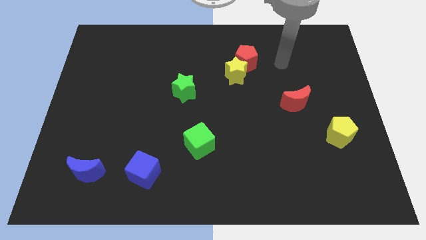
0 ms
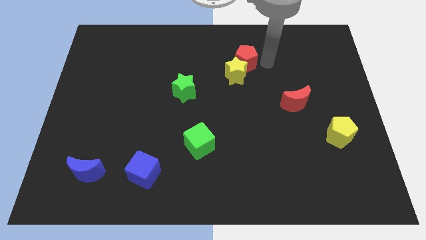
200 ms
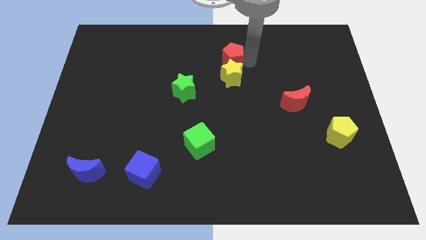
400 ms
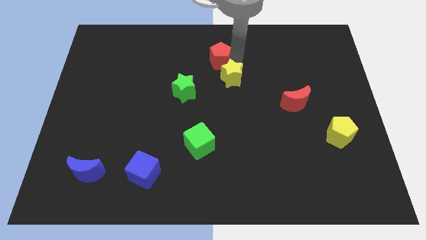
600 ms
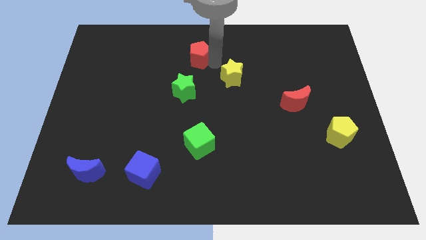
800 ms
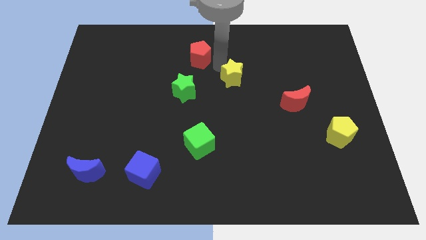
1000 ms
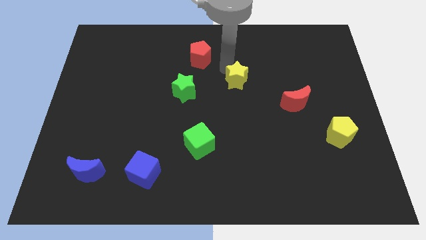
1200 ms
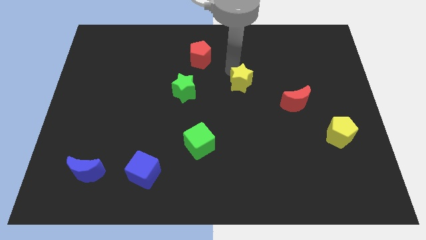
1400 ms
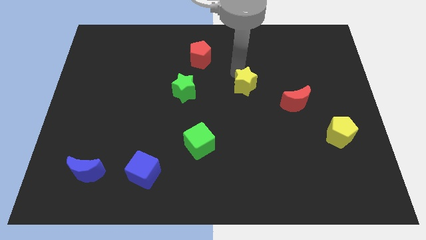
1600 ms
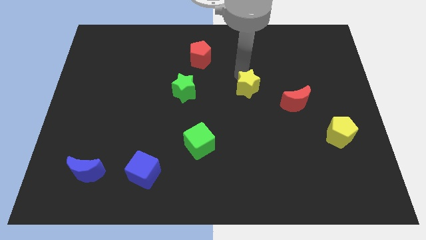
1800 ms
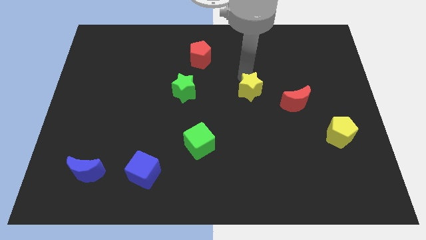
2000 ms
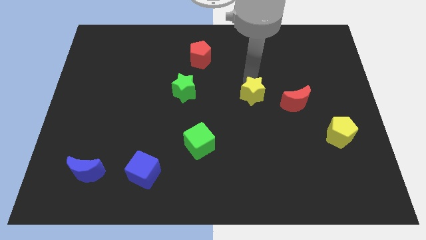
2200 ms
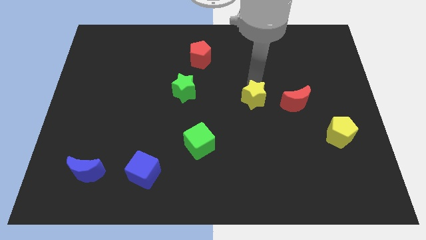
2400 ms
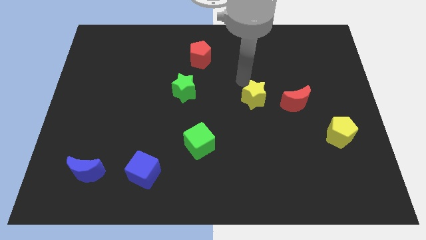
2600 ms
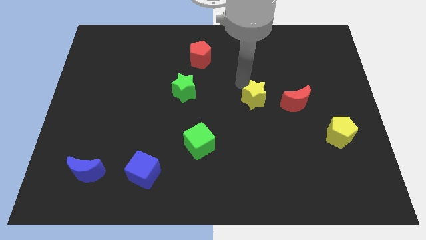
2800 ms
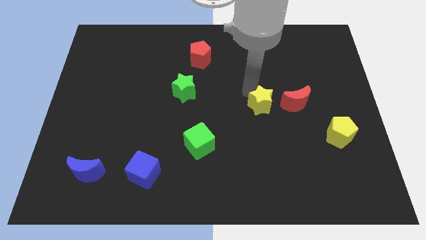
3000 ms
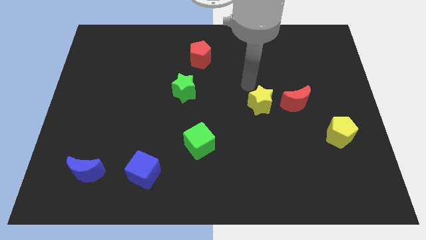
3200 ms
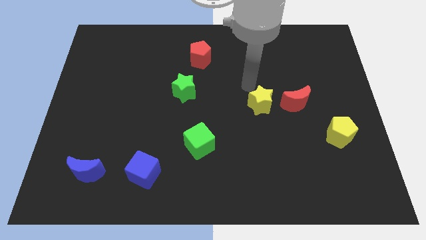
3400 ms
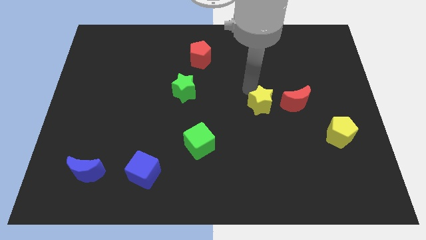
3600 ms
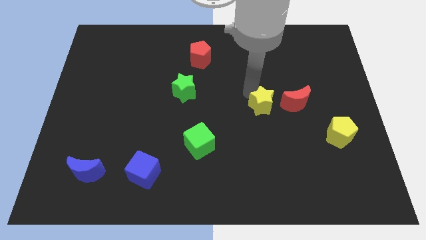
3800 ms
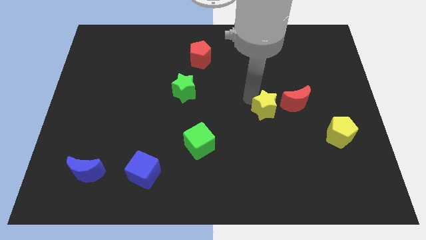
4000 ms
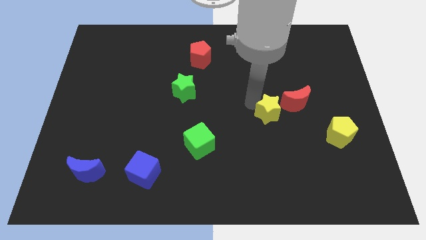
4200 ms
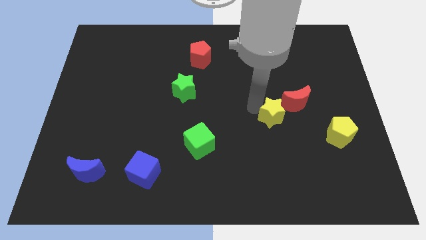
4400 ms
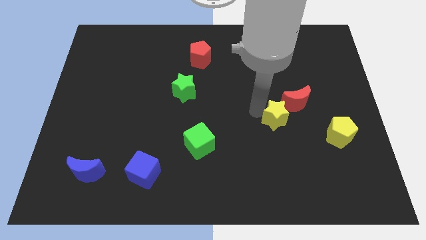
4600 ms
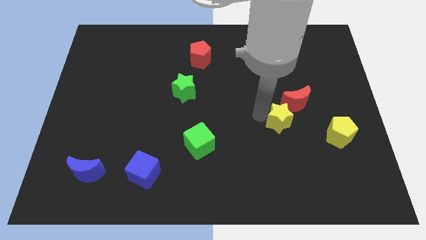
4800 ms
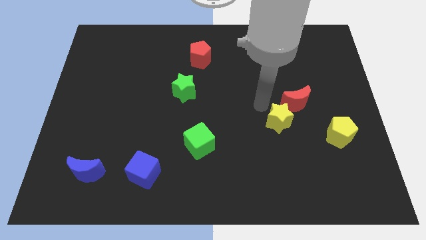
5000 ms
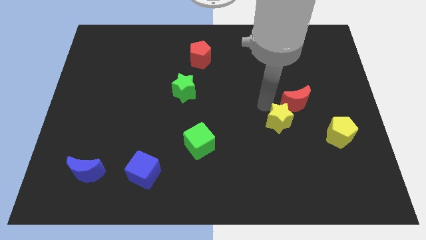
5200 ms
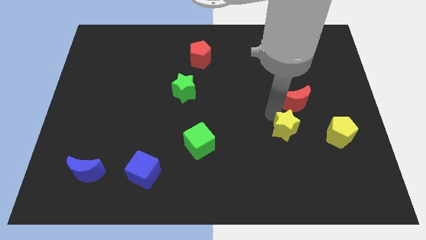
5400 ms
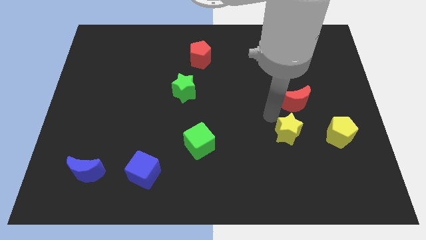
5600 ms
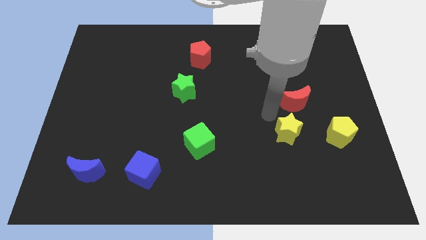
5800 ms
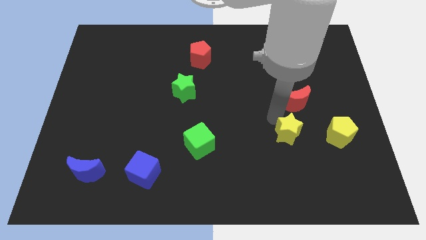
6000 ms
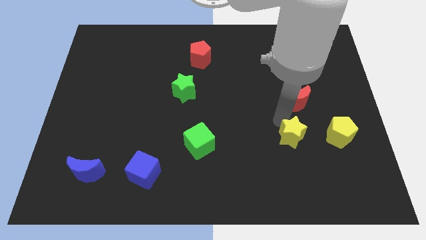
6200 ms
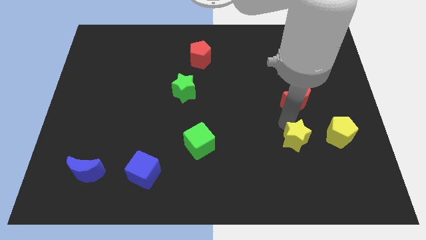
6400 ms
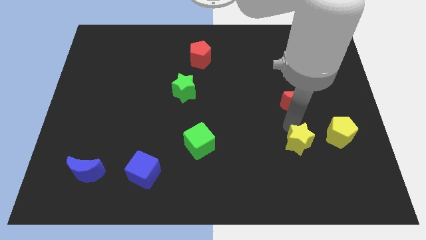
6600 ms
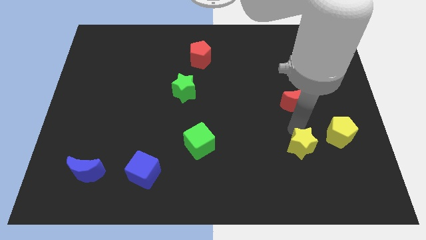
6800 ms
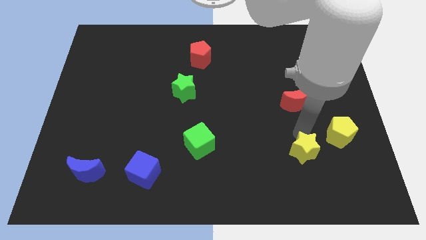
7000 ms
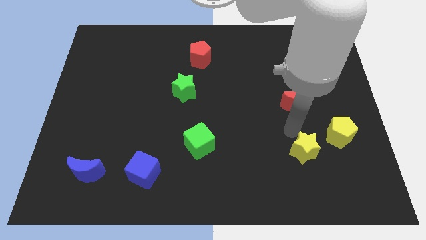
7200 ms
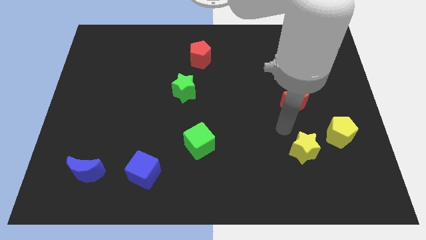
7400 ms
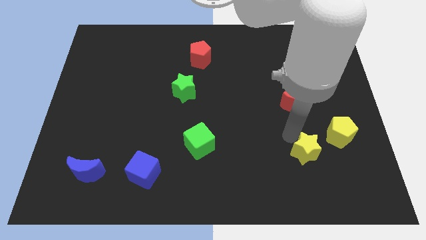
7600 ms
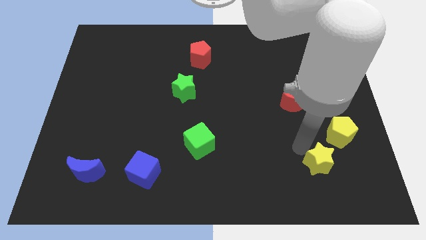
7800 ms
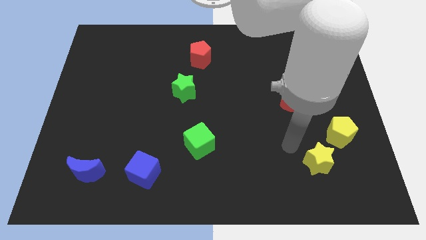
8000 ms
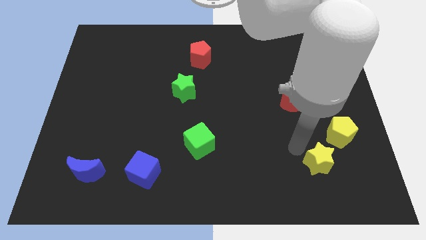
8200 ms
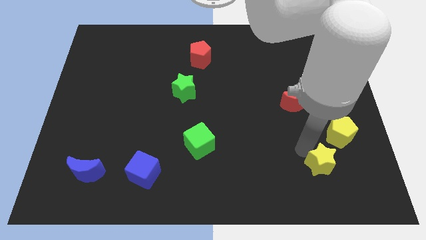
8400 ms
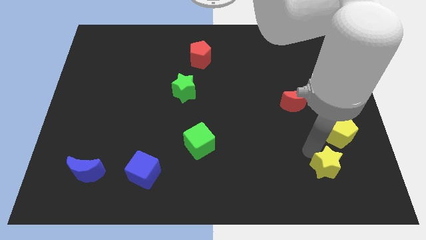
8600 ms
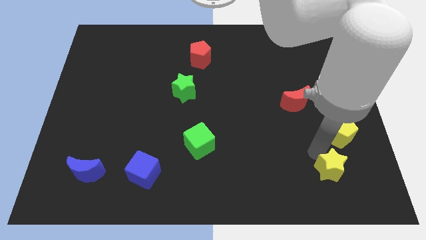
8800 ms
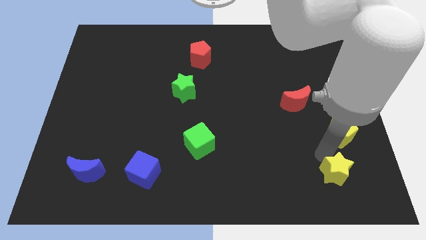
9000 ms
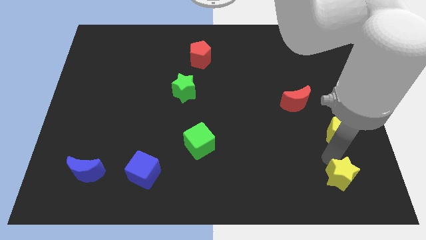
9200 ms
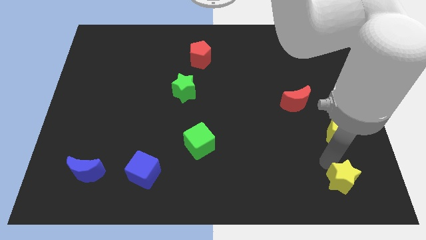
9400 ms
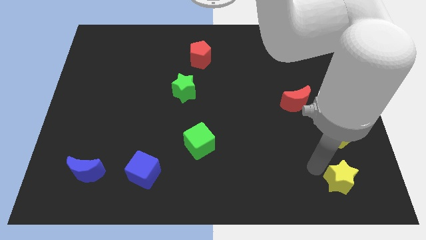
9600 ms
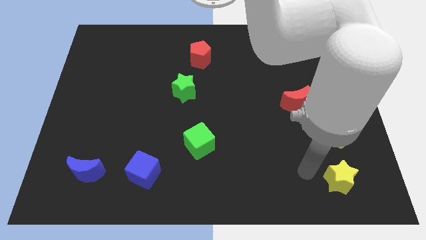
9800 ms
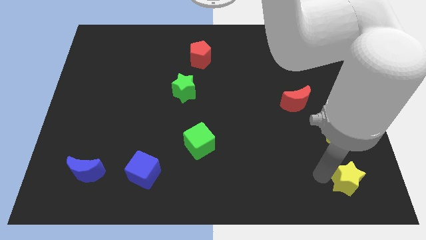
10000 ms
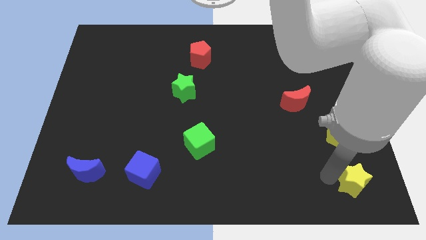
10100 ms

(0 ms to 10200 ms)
push the yellow star to the bottom right corner

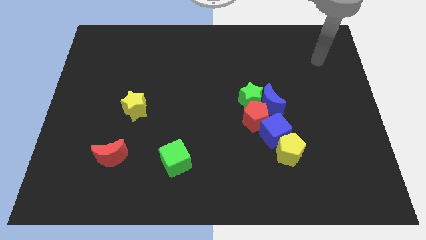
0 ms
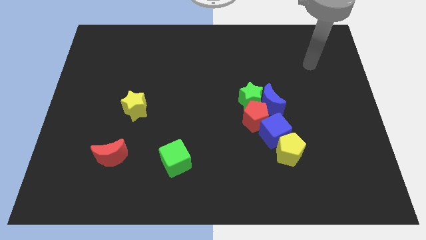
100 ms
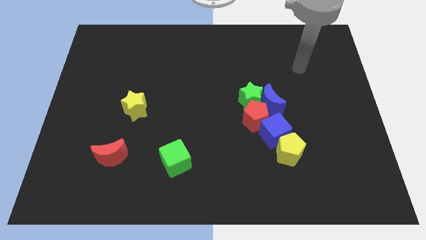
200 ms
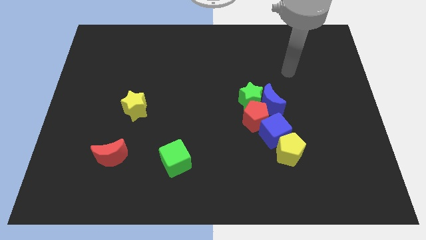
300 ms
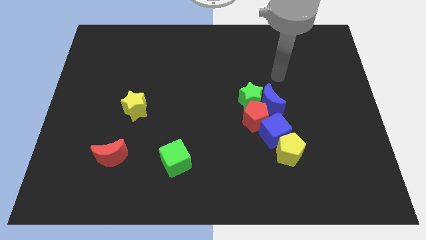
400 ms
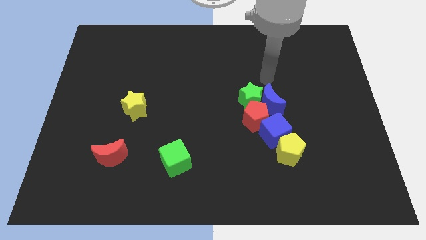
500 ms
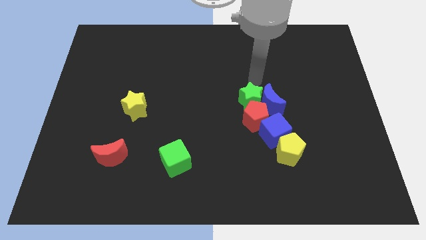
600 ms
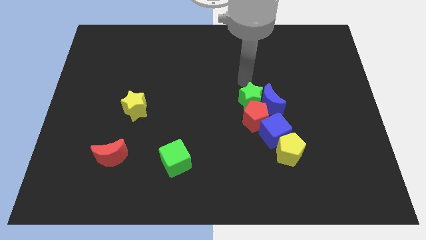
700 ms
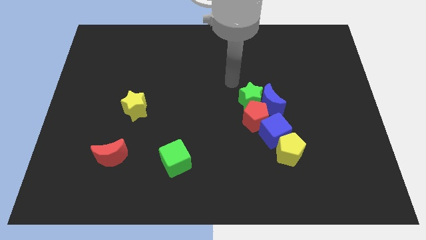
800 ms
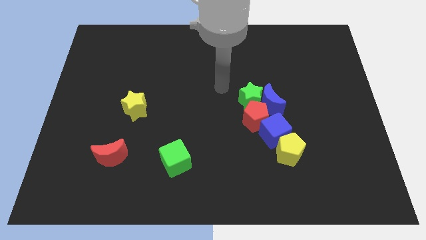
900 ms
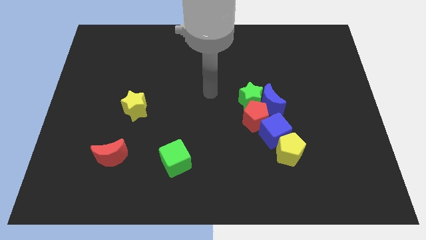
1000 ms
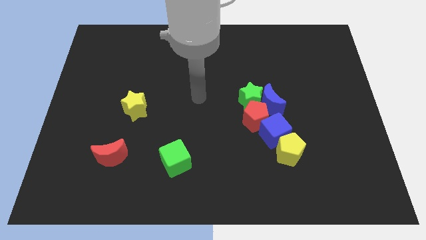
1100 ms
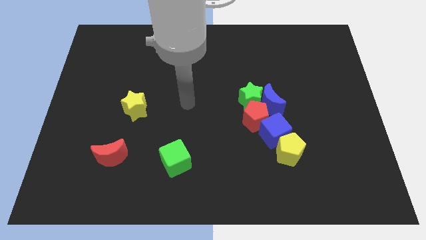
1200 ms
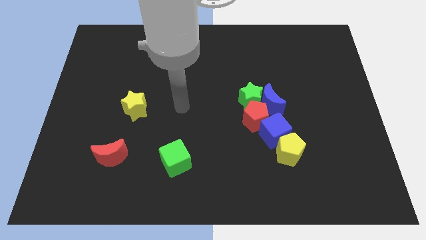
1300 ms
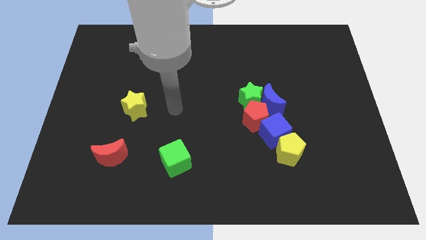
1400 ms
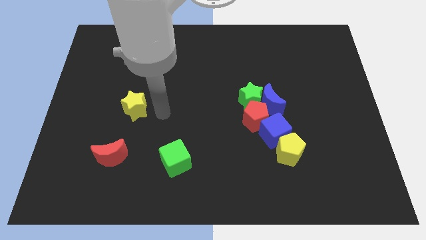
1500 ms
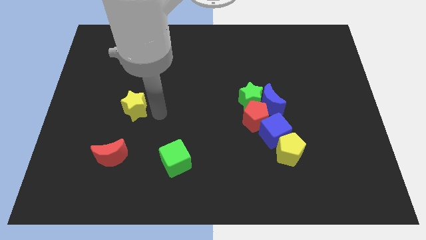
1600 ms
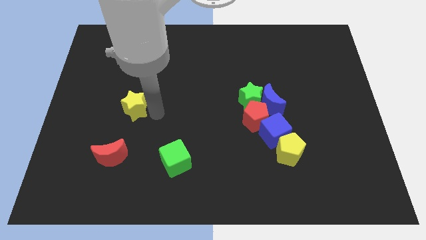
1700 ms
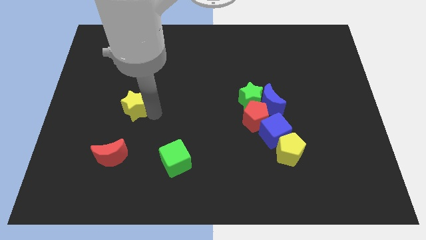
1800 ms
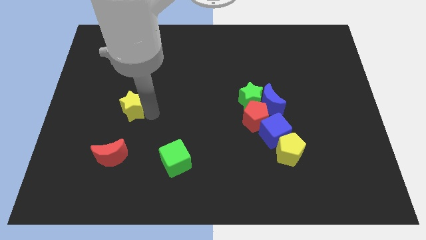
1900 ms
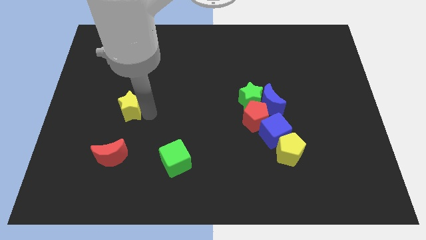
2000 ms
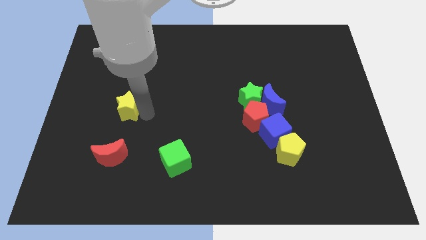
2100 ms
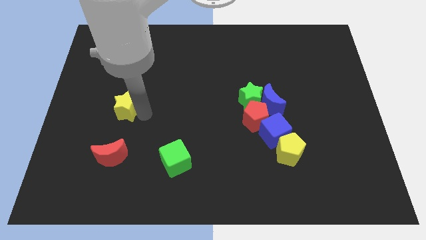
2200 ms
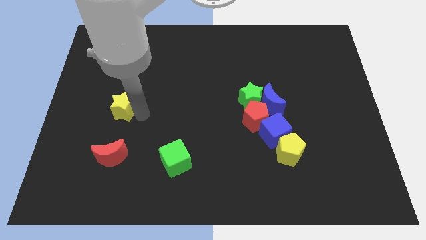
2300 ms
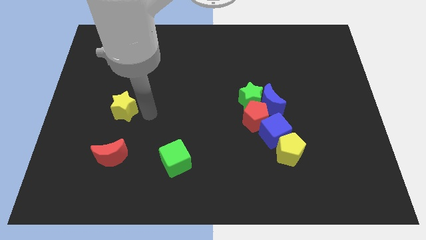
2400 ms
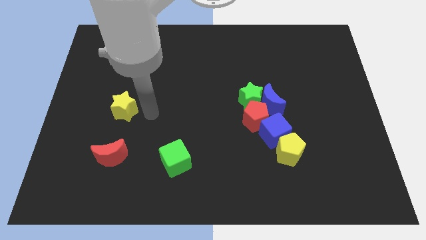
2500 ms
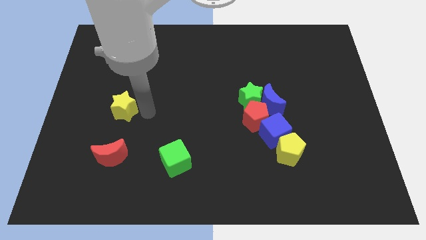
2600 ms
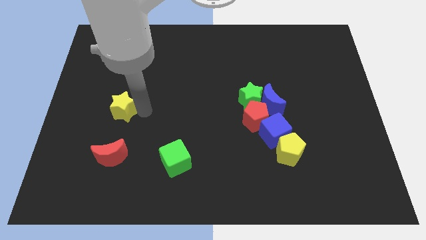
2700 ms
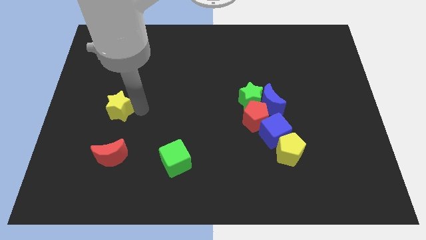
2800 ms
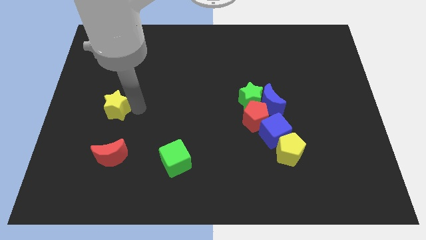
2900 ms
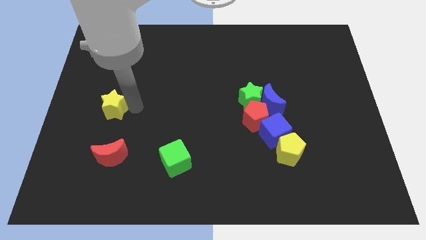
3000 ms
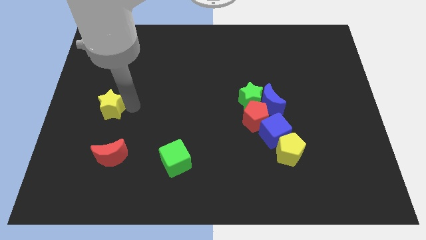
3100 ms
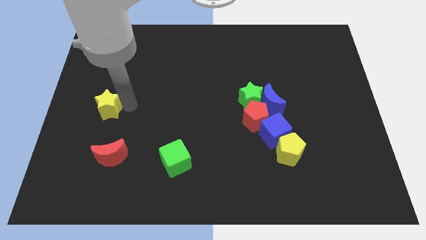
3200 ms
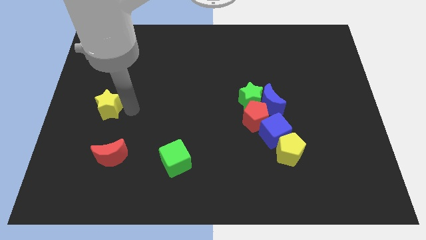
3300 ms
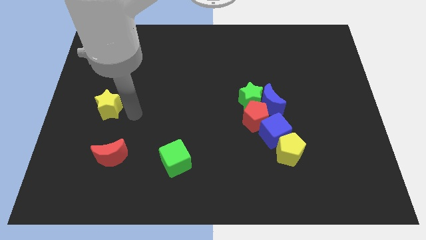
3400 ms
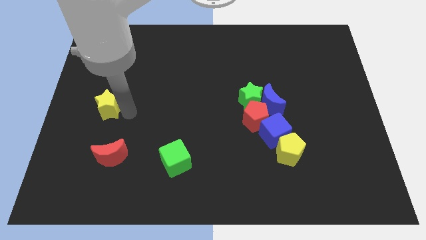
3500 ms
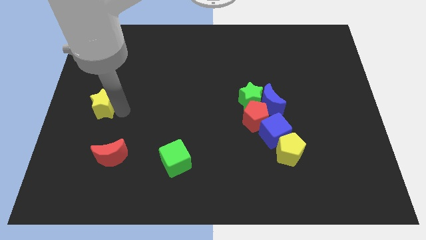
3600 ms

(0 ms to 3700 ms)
slide the yellow star to the center left
